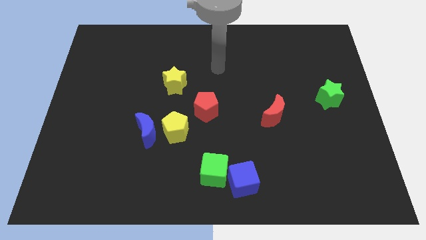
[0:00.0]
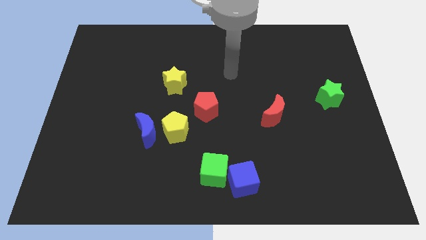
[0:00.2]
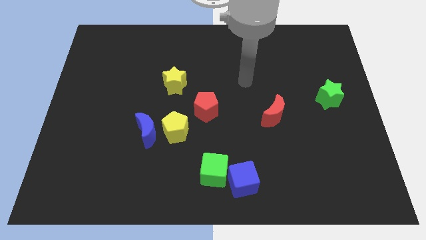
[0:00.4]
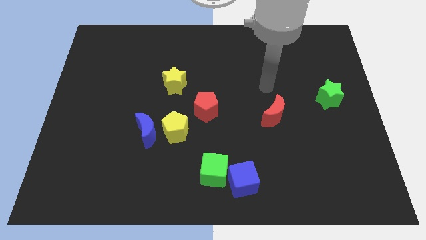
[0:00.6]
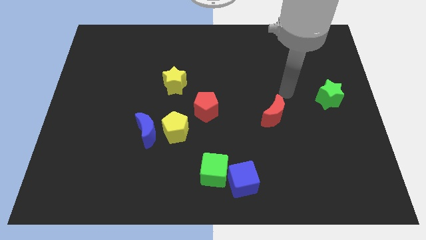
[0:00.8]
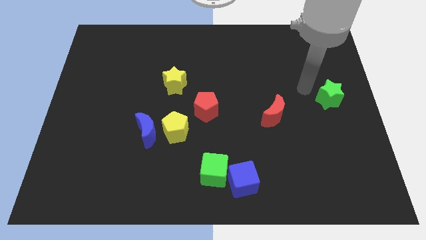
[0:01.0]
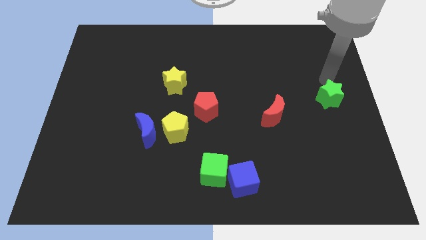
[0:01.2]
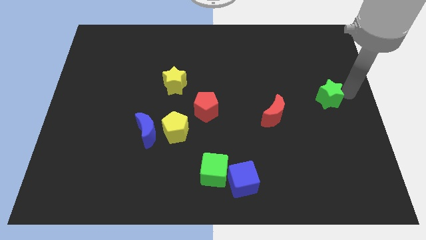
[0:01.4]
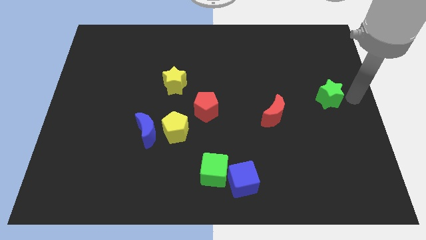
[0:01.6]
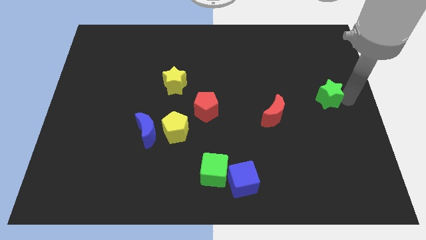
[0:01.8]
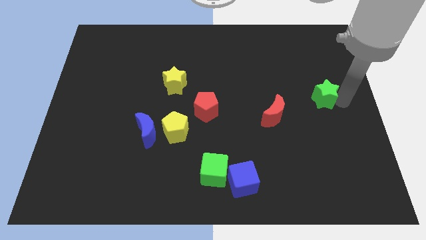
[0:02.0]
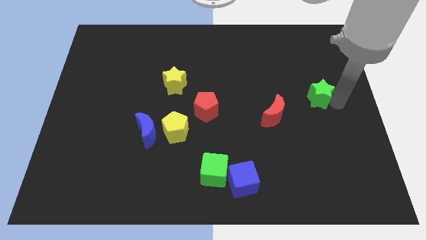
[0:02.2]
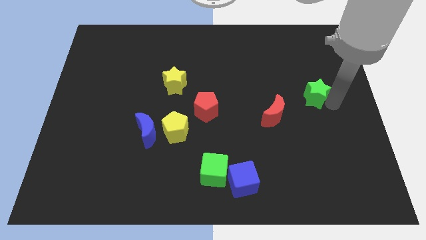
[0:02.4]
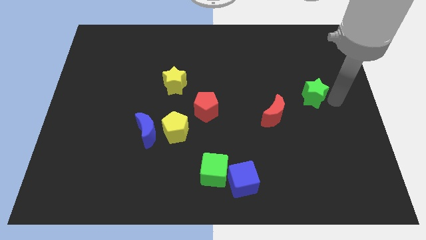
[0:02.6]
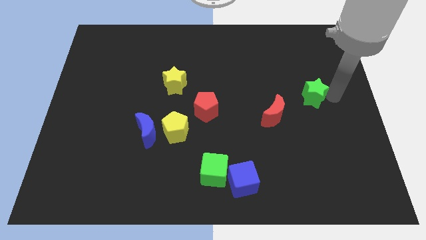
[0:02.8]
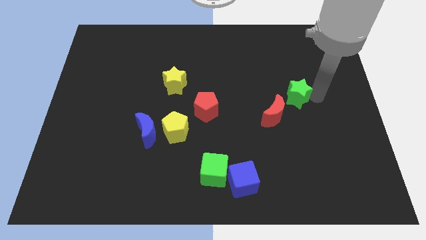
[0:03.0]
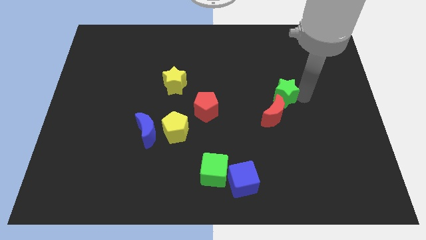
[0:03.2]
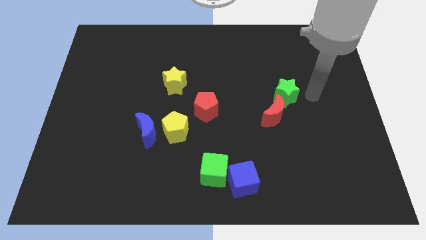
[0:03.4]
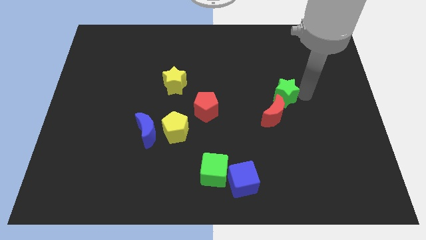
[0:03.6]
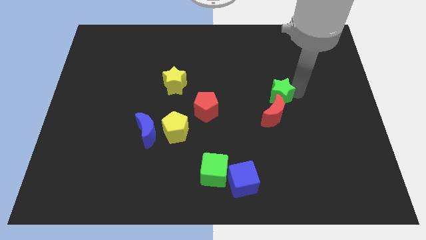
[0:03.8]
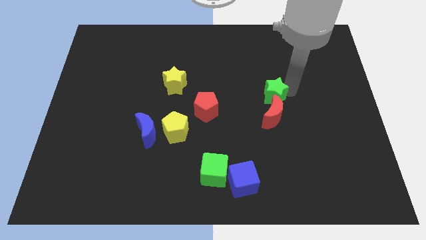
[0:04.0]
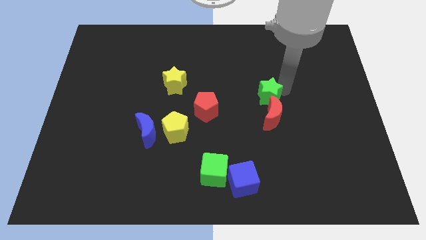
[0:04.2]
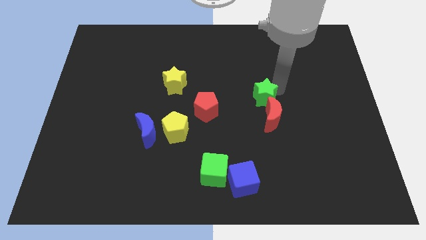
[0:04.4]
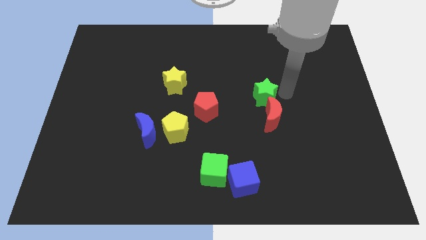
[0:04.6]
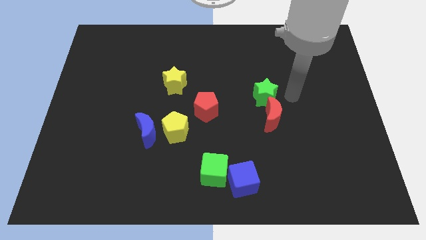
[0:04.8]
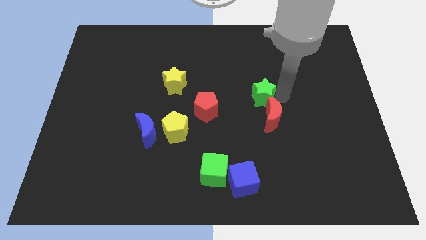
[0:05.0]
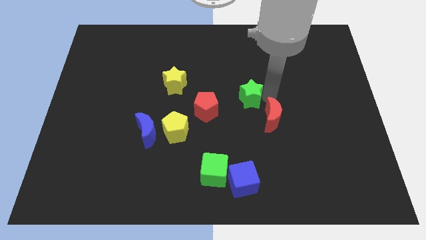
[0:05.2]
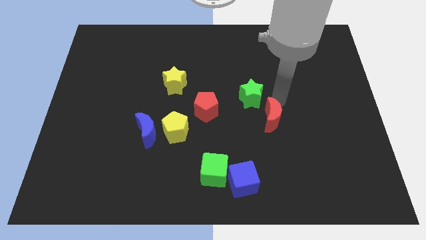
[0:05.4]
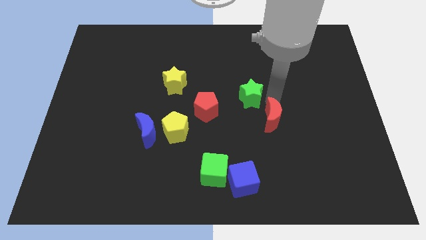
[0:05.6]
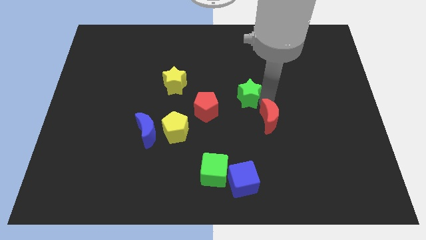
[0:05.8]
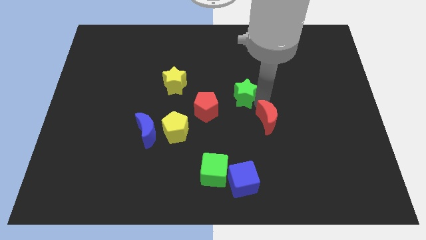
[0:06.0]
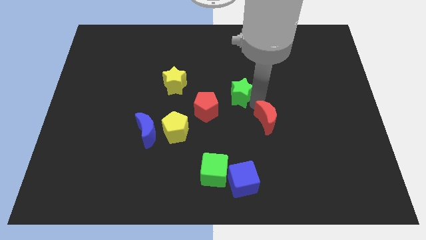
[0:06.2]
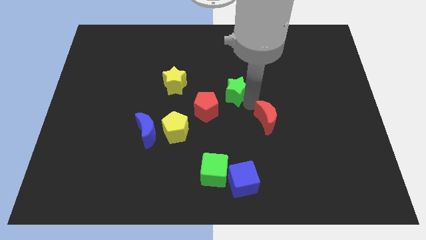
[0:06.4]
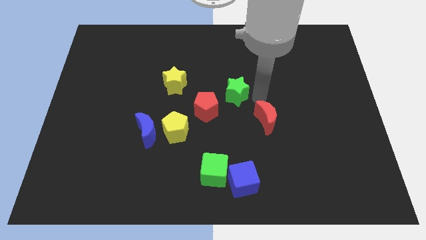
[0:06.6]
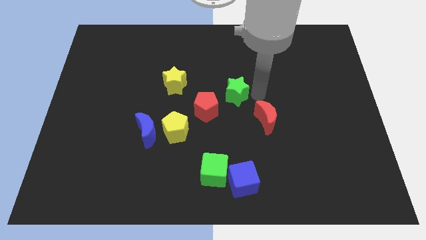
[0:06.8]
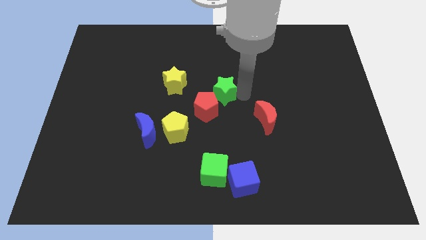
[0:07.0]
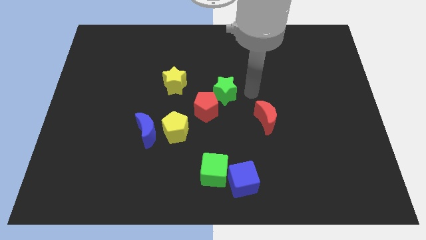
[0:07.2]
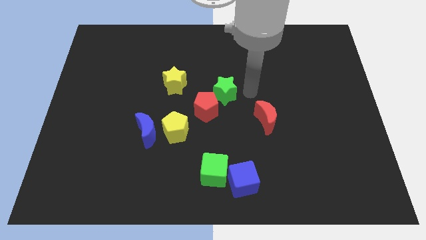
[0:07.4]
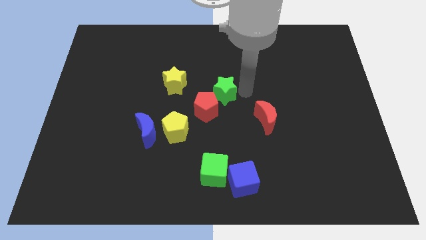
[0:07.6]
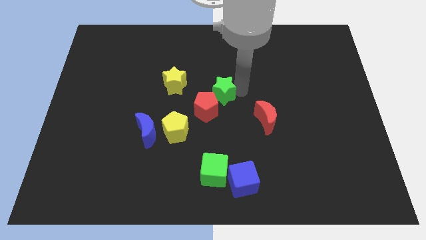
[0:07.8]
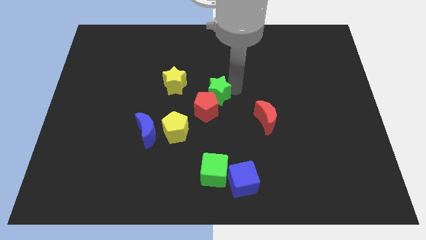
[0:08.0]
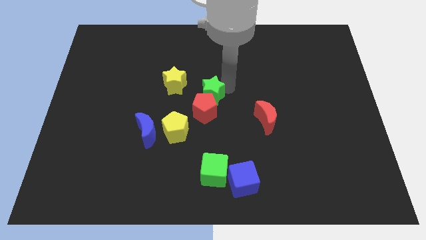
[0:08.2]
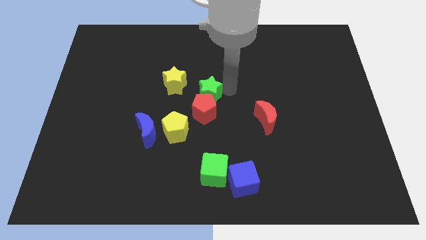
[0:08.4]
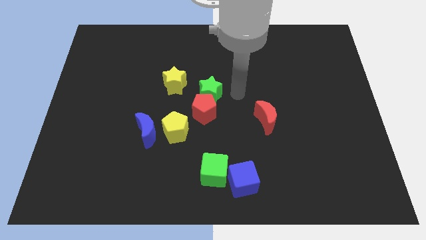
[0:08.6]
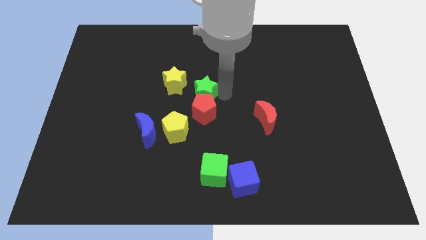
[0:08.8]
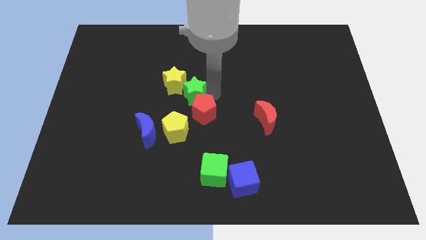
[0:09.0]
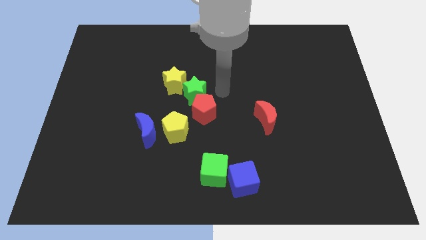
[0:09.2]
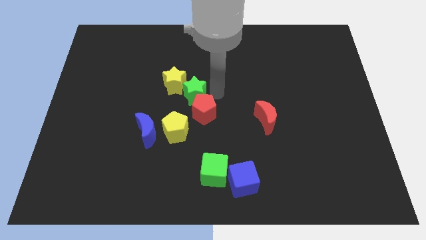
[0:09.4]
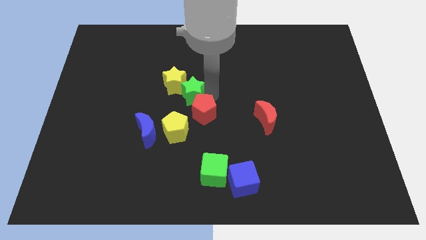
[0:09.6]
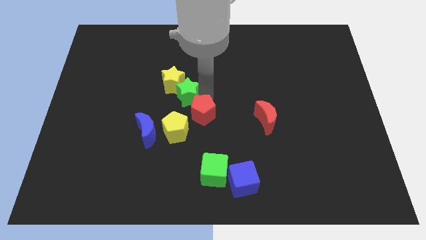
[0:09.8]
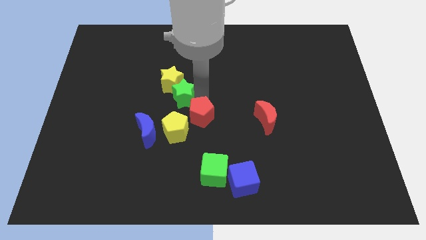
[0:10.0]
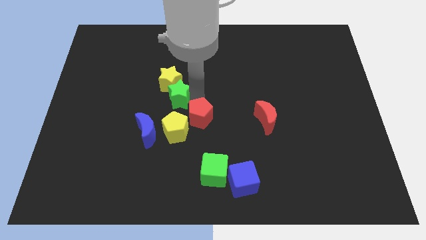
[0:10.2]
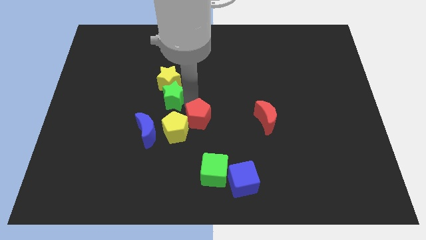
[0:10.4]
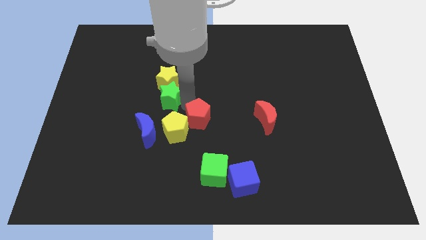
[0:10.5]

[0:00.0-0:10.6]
slide the green star above the blue moon

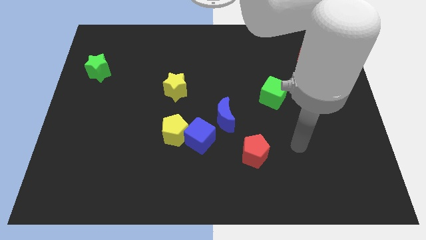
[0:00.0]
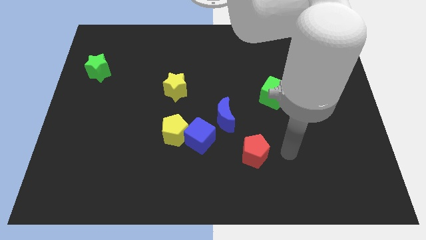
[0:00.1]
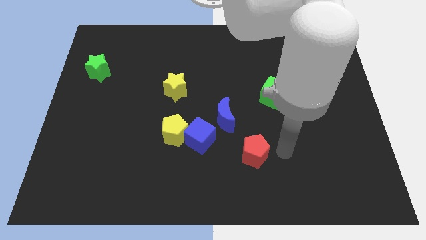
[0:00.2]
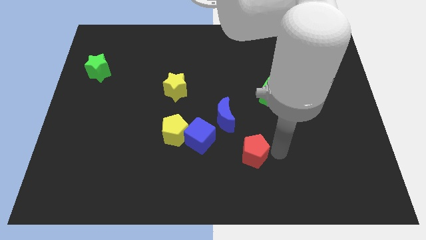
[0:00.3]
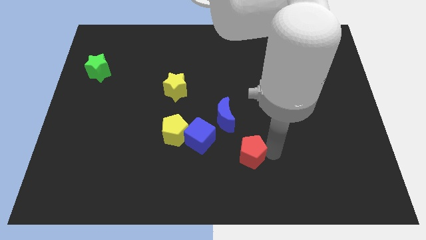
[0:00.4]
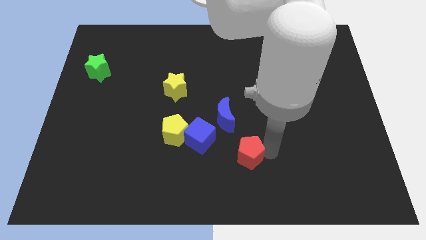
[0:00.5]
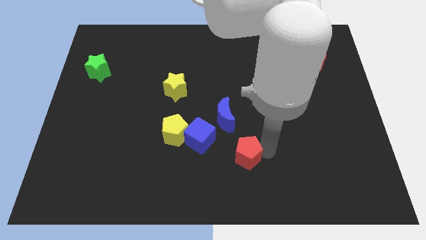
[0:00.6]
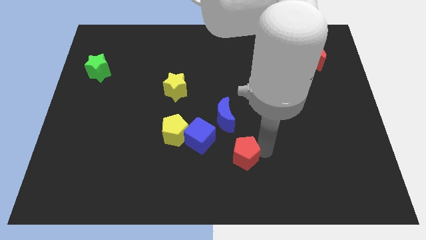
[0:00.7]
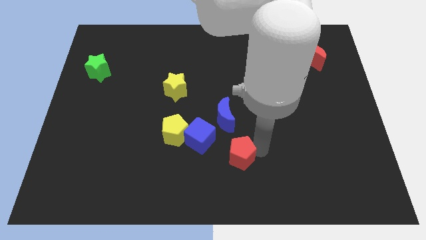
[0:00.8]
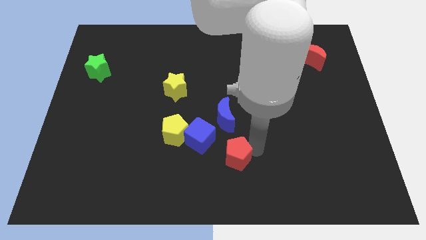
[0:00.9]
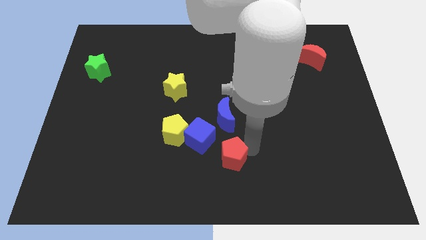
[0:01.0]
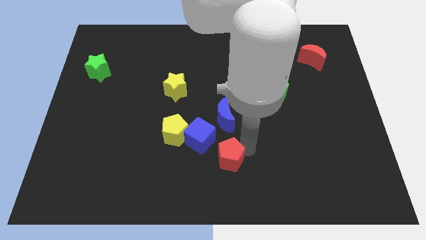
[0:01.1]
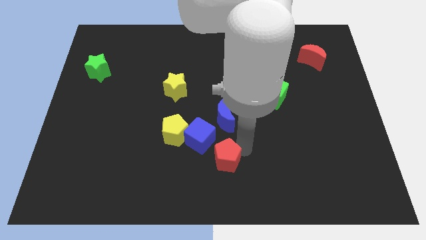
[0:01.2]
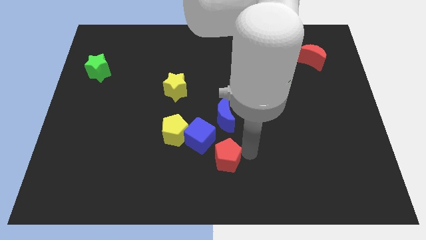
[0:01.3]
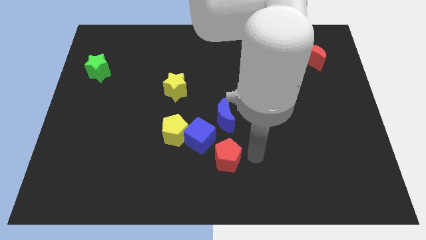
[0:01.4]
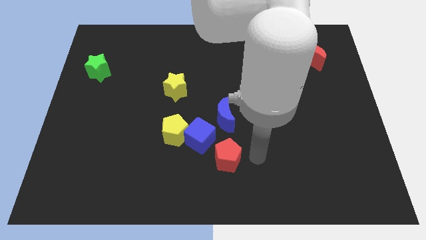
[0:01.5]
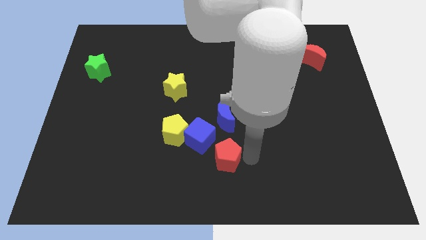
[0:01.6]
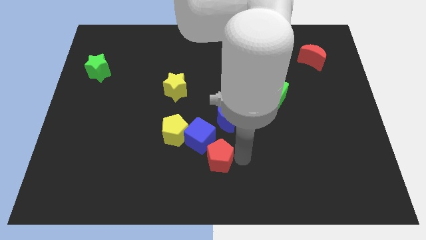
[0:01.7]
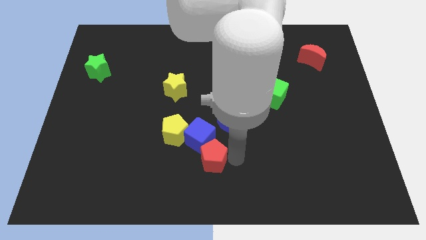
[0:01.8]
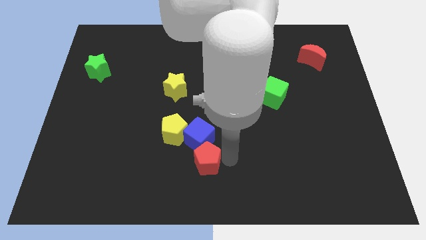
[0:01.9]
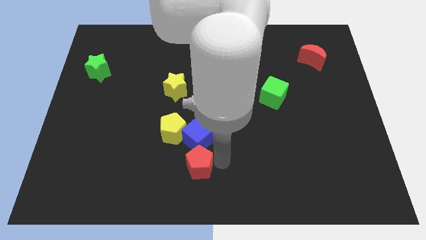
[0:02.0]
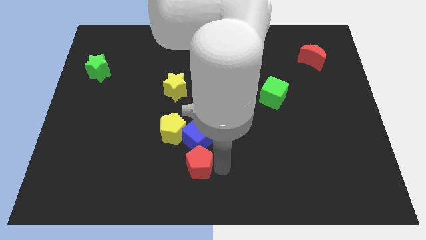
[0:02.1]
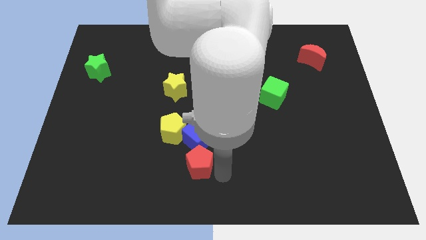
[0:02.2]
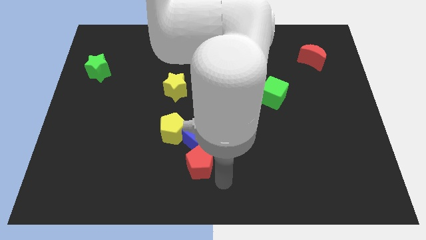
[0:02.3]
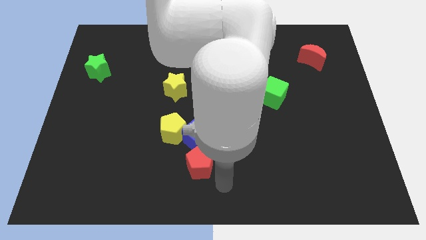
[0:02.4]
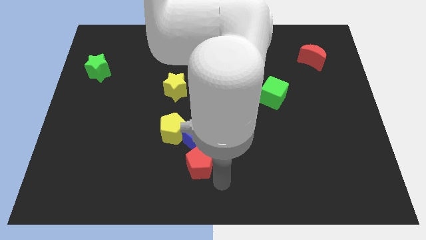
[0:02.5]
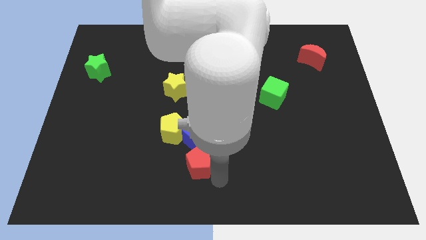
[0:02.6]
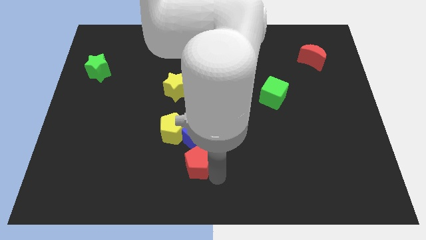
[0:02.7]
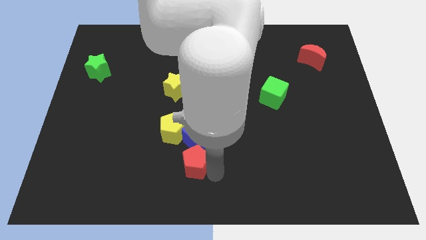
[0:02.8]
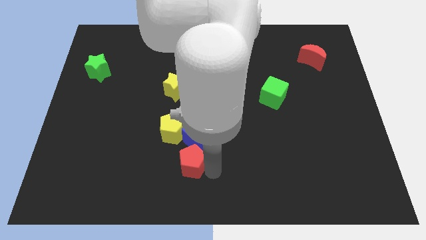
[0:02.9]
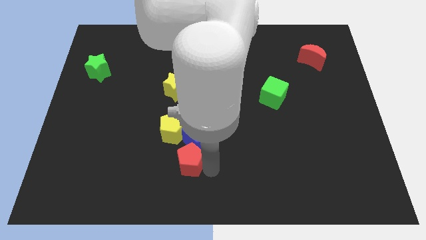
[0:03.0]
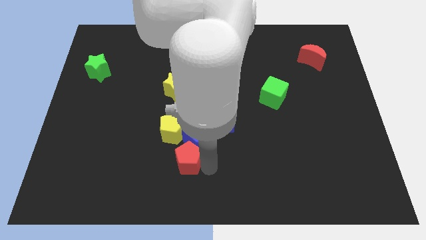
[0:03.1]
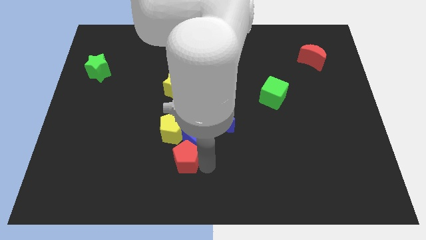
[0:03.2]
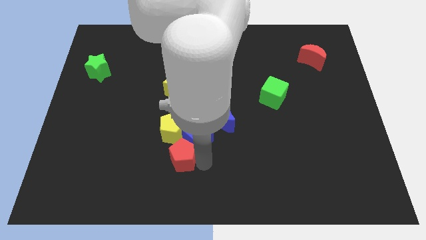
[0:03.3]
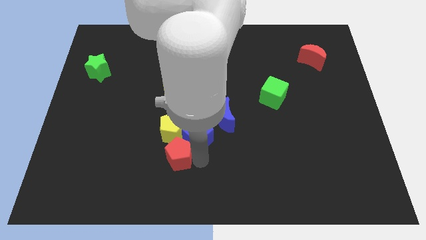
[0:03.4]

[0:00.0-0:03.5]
put the red pentagon left of the blue cube
